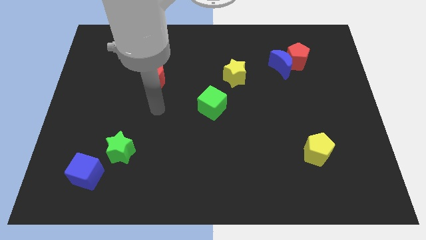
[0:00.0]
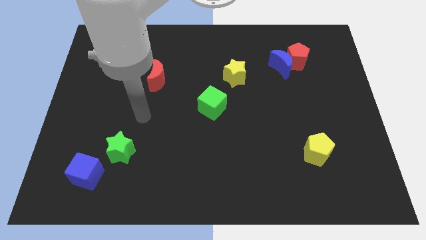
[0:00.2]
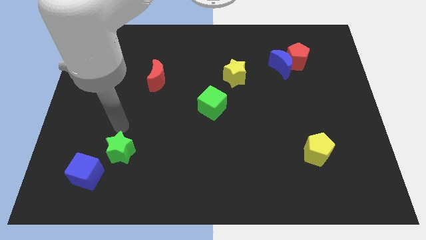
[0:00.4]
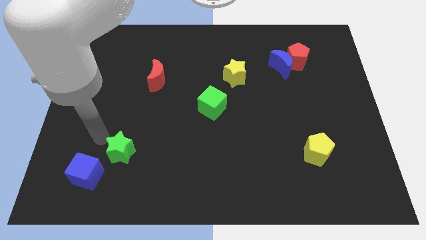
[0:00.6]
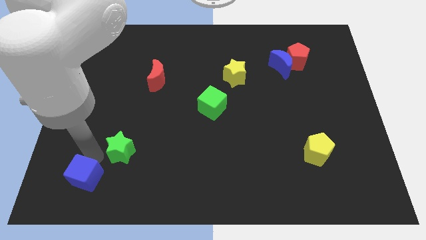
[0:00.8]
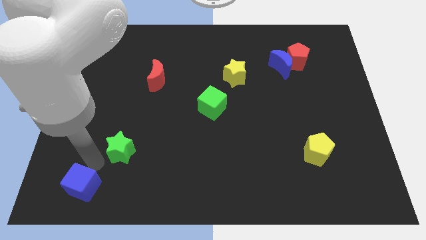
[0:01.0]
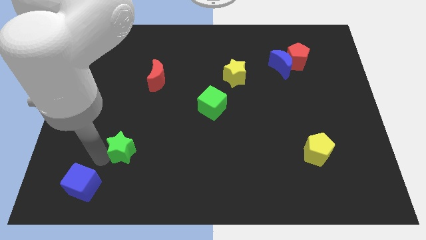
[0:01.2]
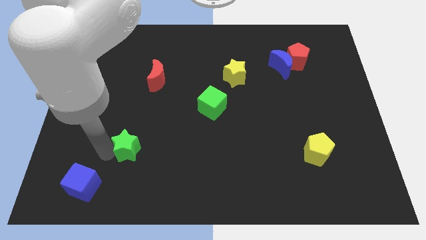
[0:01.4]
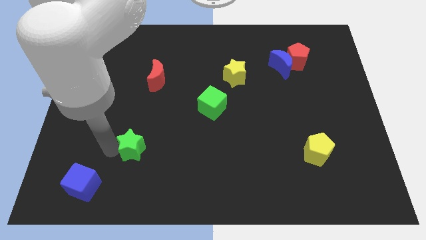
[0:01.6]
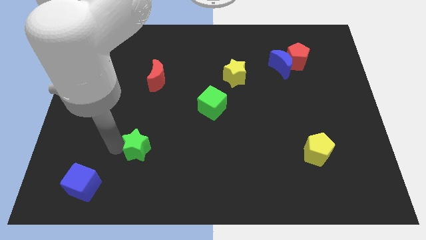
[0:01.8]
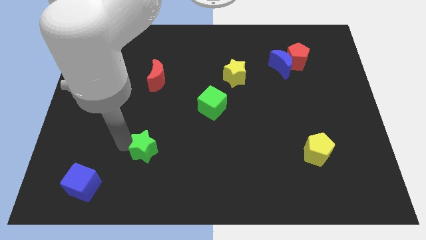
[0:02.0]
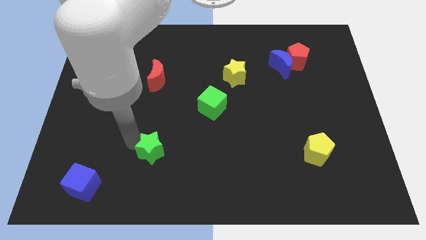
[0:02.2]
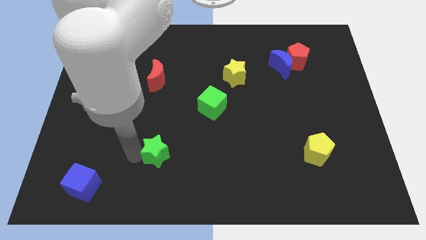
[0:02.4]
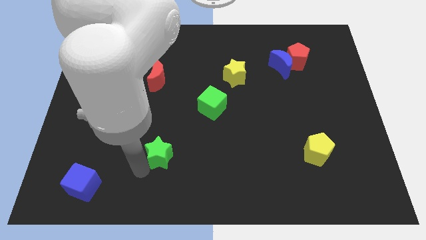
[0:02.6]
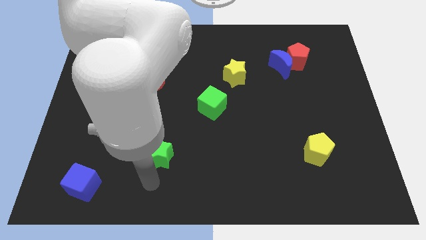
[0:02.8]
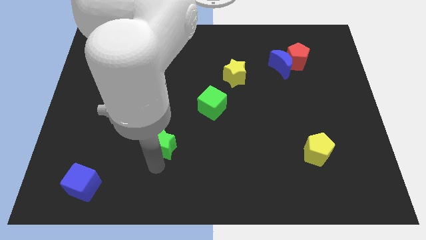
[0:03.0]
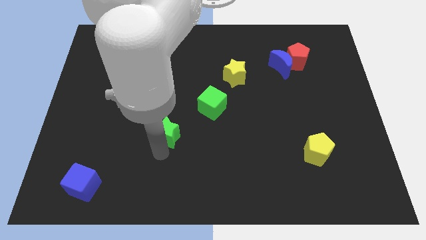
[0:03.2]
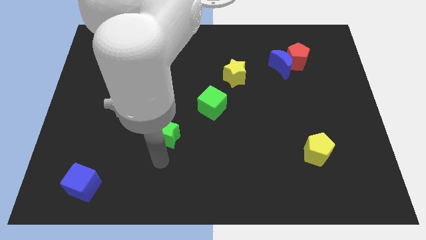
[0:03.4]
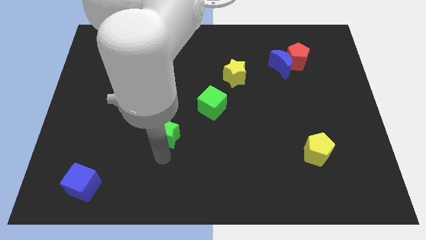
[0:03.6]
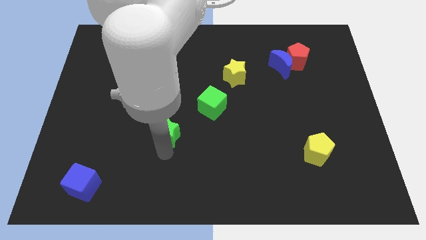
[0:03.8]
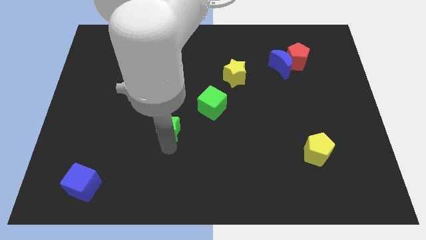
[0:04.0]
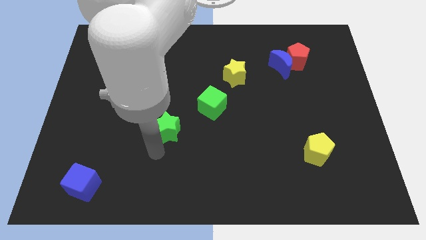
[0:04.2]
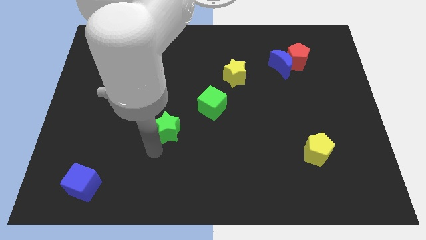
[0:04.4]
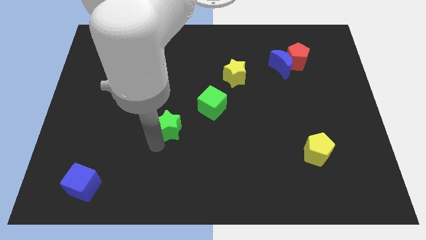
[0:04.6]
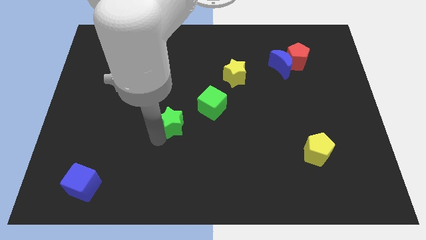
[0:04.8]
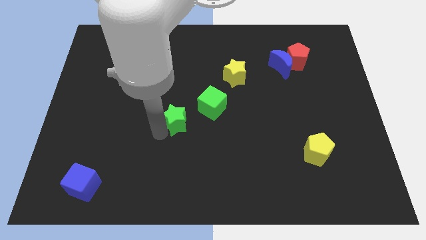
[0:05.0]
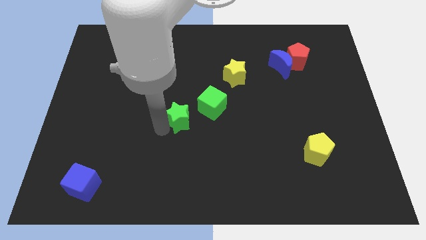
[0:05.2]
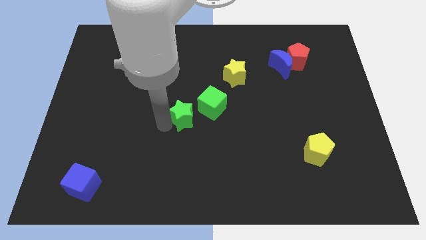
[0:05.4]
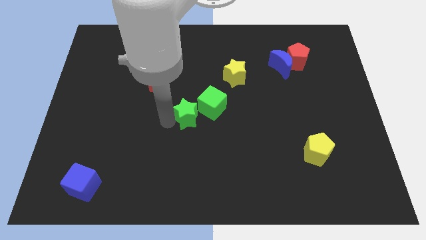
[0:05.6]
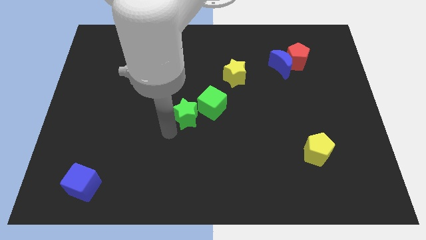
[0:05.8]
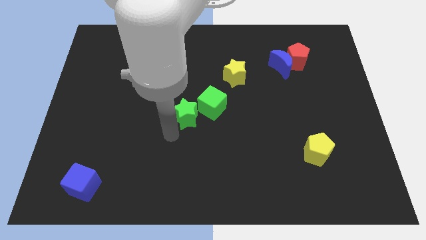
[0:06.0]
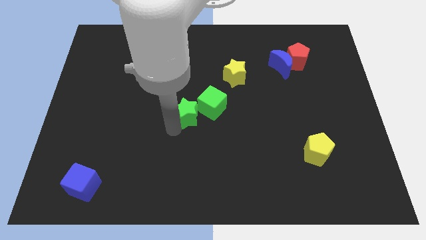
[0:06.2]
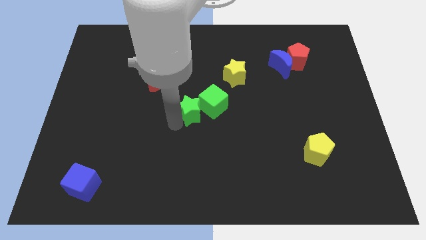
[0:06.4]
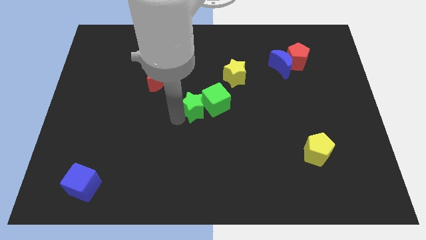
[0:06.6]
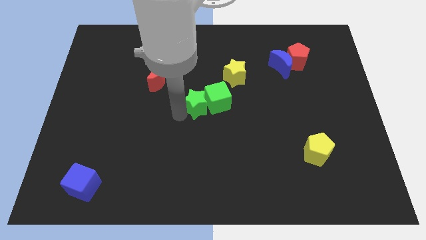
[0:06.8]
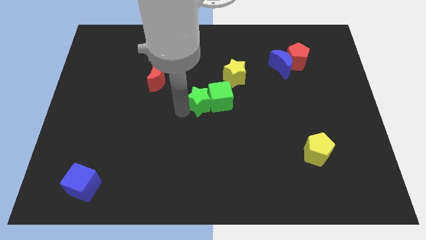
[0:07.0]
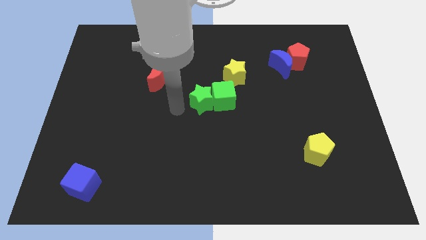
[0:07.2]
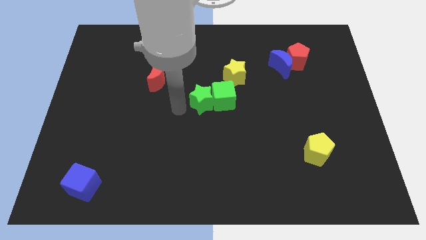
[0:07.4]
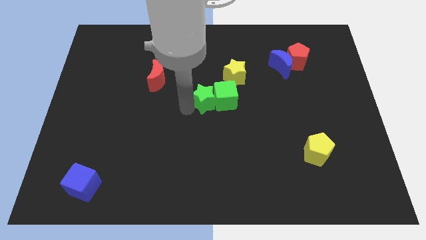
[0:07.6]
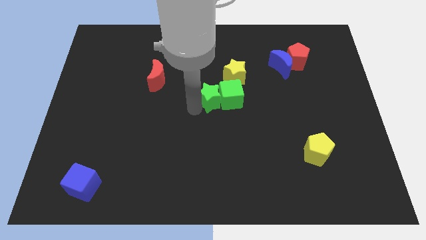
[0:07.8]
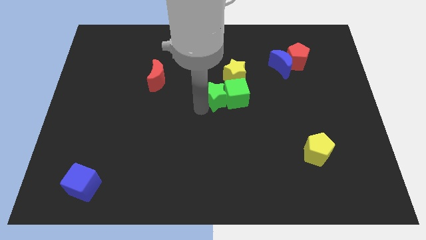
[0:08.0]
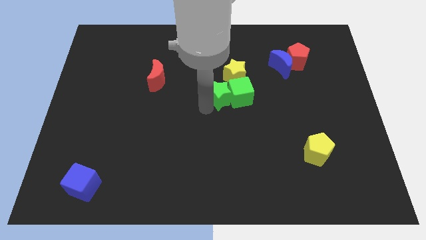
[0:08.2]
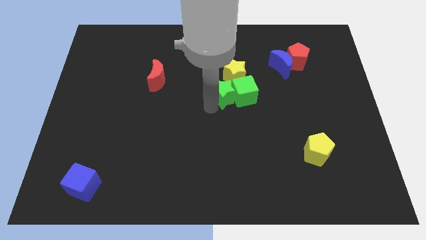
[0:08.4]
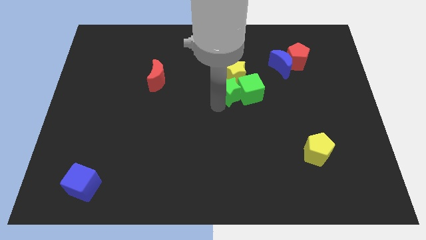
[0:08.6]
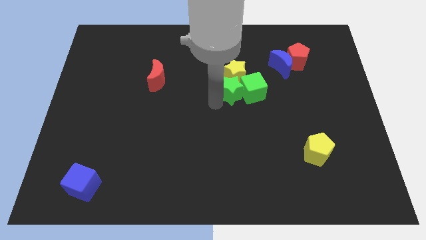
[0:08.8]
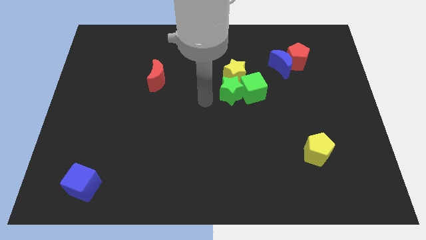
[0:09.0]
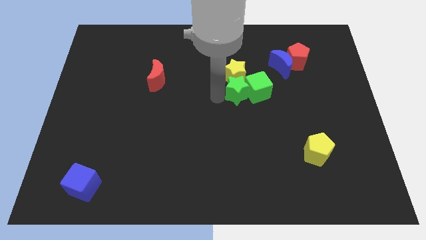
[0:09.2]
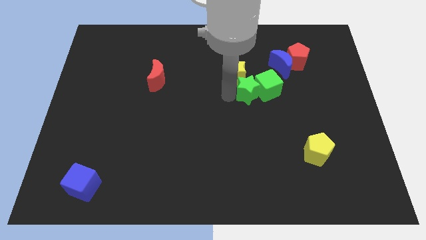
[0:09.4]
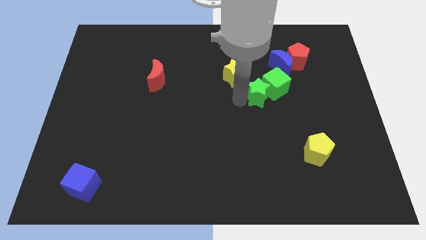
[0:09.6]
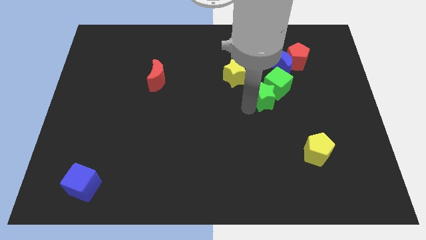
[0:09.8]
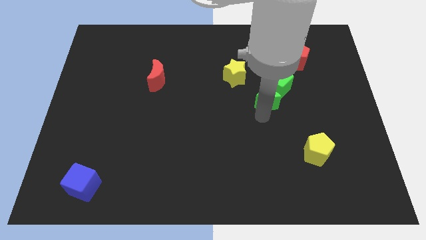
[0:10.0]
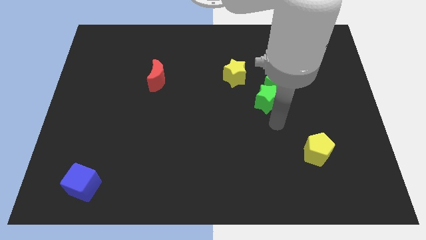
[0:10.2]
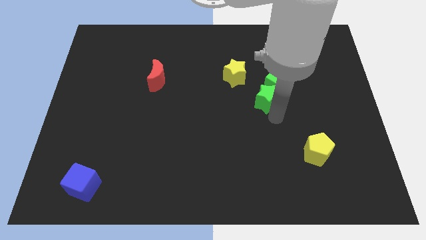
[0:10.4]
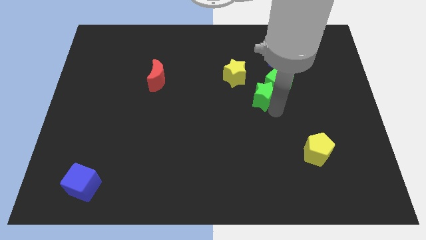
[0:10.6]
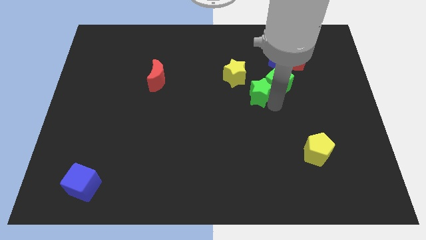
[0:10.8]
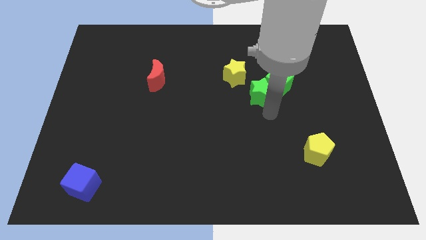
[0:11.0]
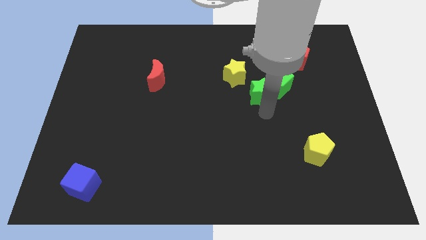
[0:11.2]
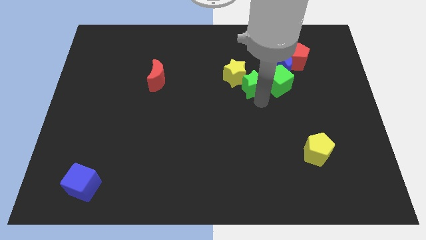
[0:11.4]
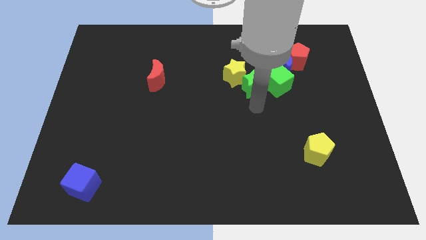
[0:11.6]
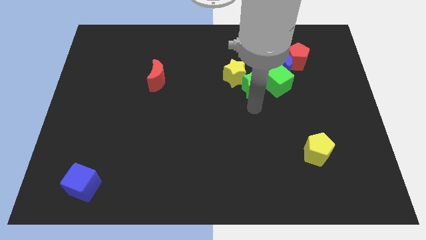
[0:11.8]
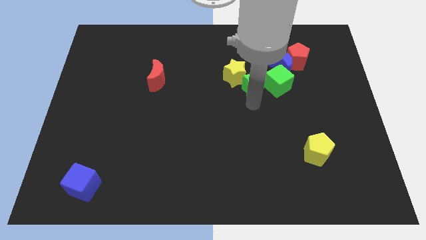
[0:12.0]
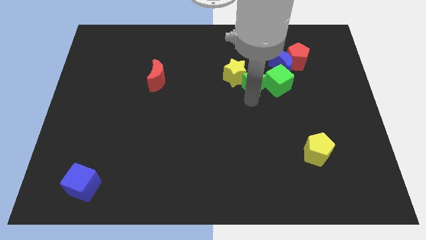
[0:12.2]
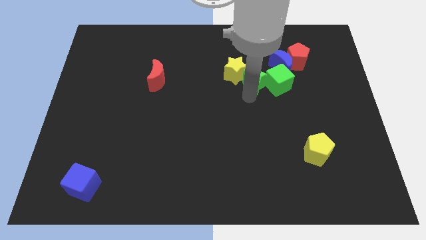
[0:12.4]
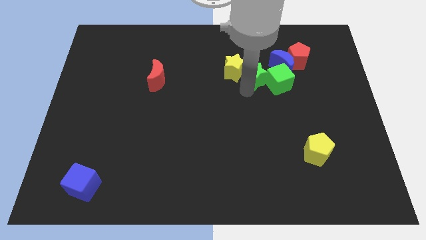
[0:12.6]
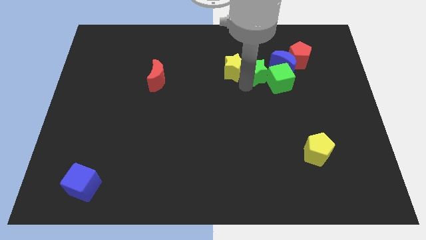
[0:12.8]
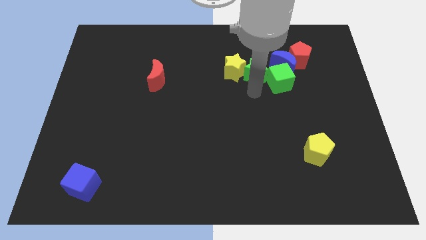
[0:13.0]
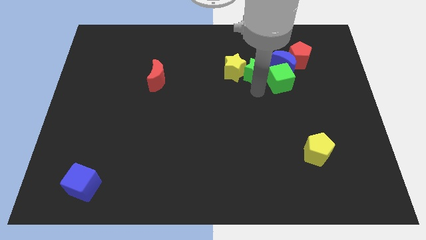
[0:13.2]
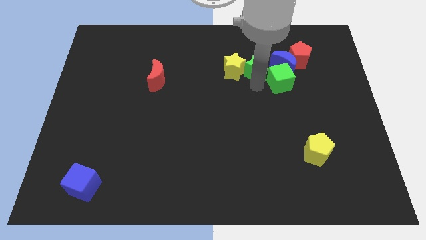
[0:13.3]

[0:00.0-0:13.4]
move the green star to the top right side of the yellow star

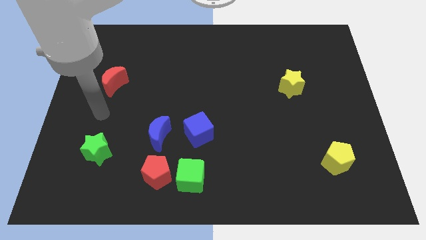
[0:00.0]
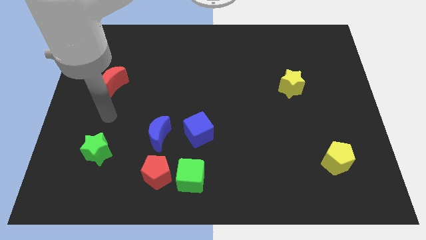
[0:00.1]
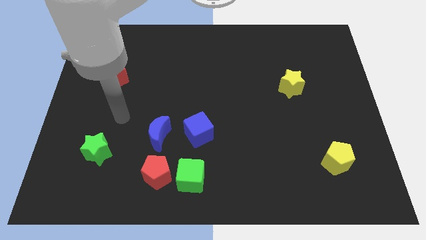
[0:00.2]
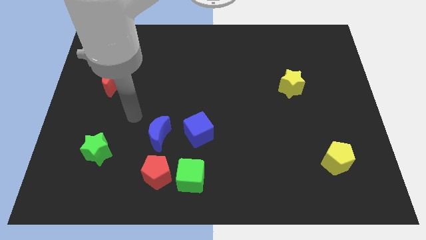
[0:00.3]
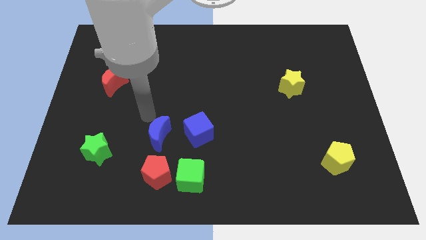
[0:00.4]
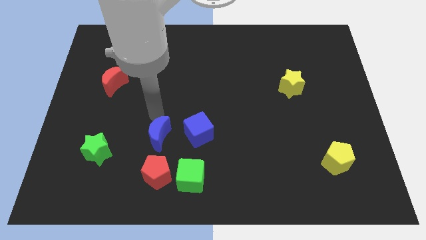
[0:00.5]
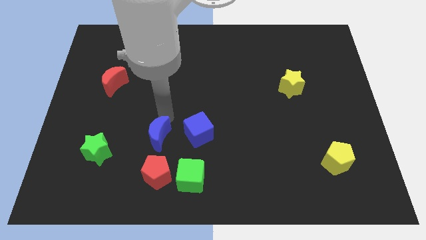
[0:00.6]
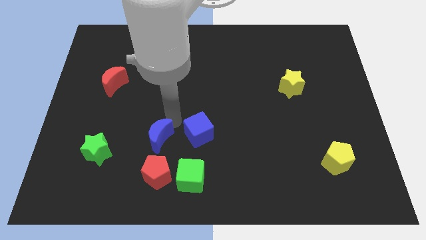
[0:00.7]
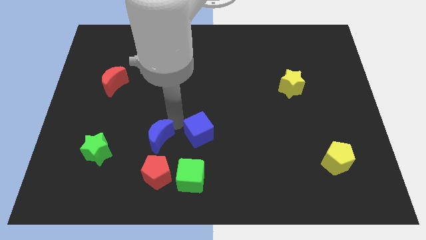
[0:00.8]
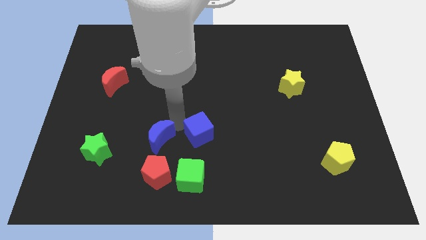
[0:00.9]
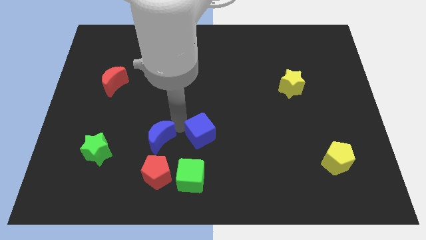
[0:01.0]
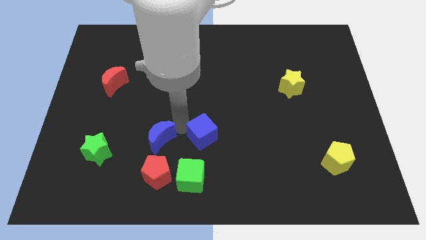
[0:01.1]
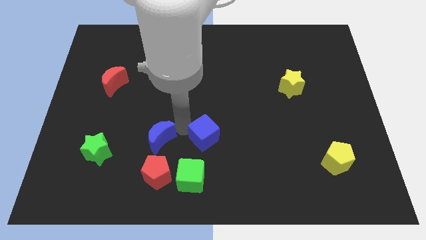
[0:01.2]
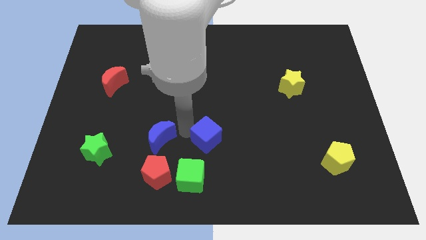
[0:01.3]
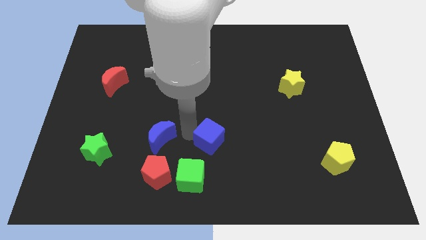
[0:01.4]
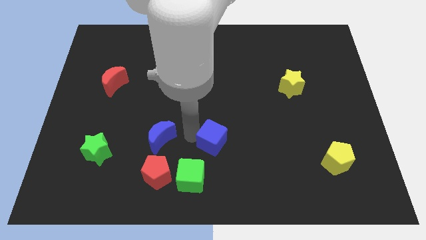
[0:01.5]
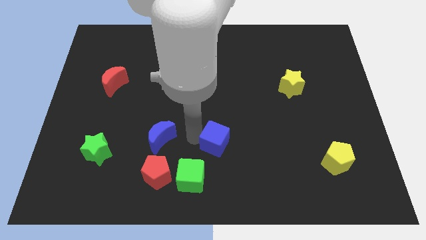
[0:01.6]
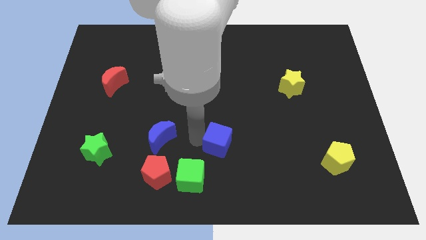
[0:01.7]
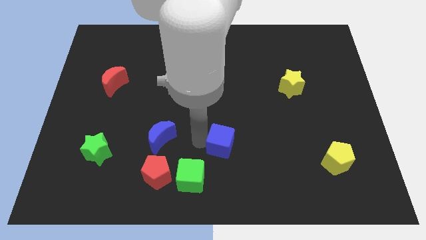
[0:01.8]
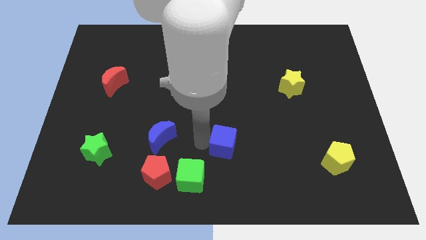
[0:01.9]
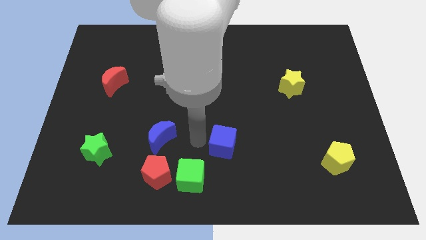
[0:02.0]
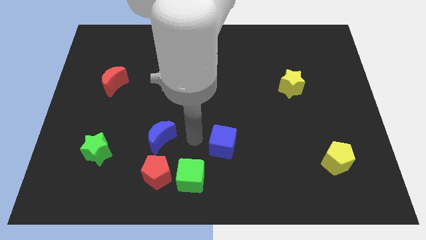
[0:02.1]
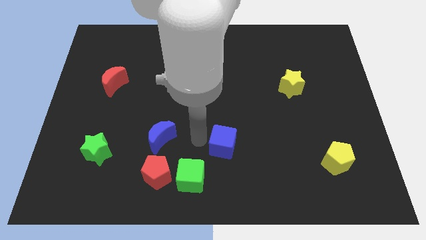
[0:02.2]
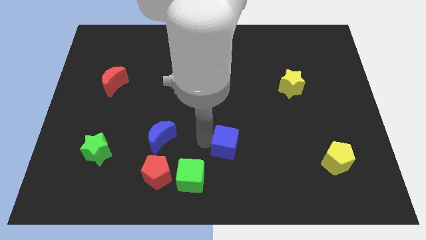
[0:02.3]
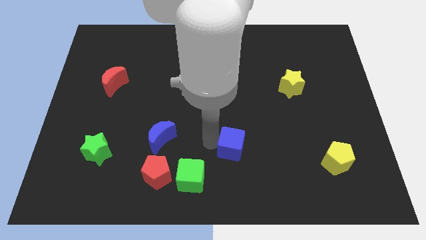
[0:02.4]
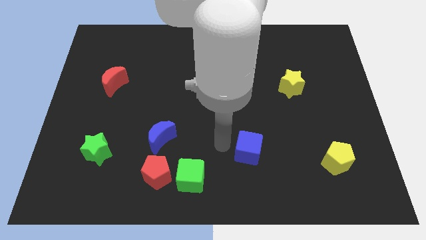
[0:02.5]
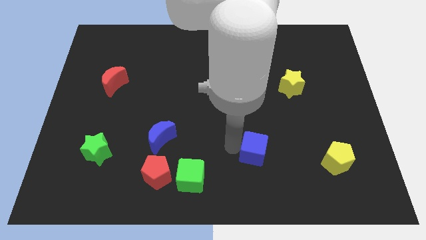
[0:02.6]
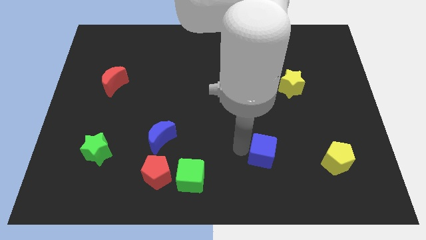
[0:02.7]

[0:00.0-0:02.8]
put the blue cube to the left of the yellow pentagon
